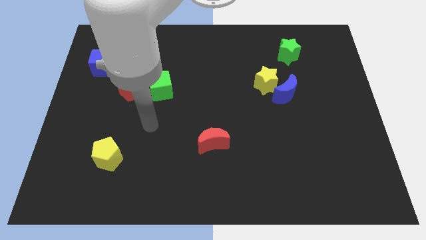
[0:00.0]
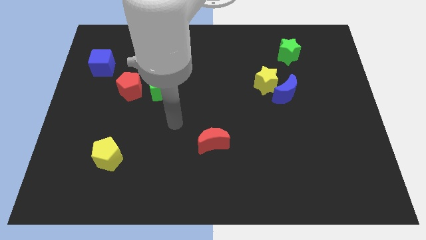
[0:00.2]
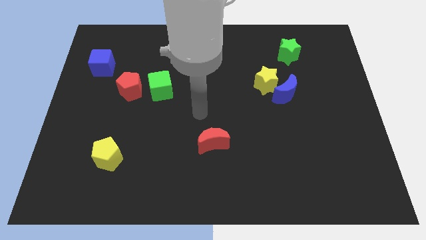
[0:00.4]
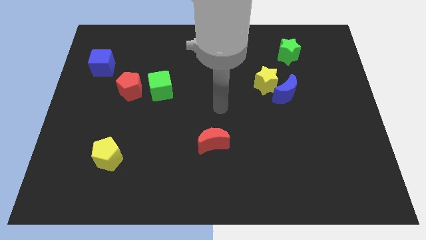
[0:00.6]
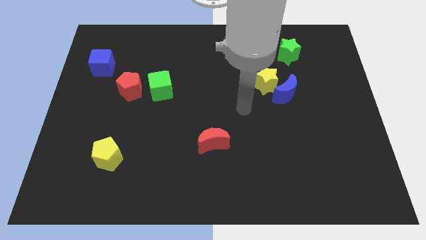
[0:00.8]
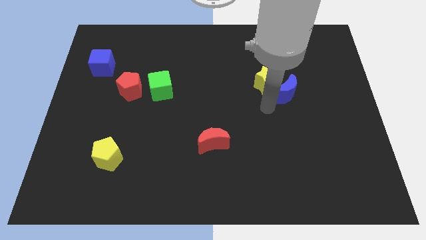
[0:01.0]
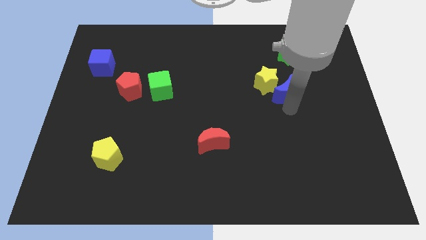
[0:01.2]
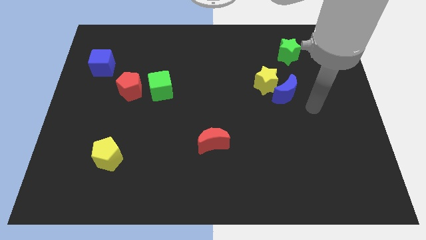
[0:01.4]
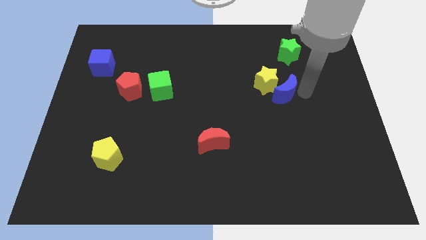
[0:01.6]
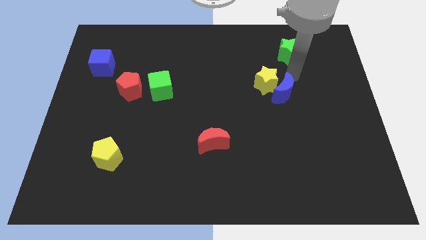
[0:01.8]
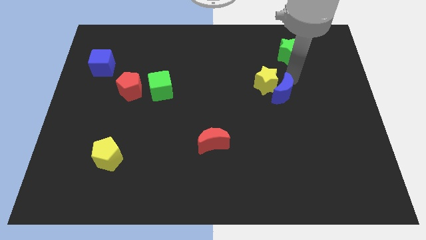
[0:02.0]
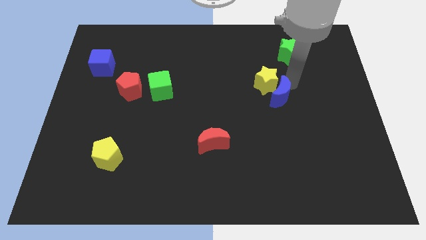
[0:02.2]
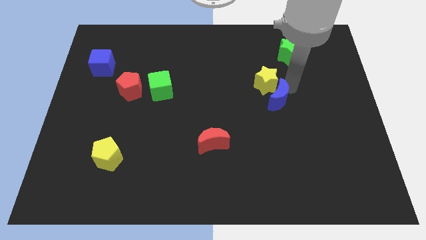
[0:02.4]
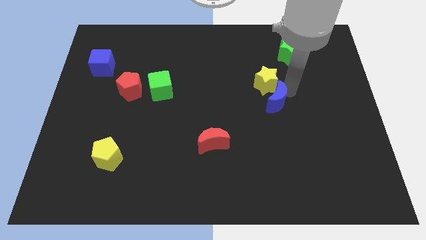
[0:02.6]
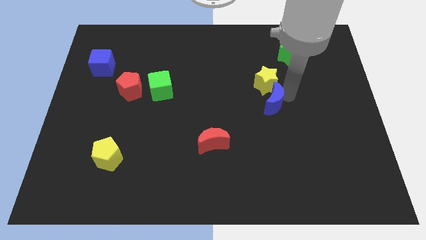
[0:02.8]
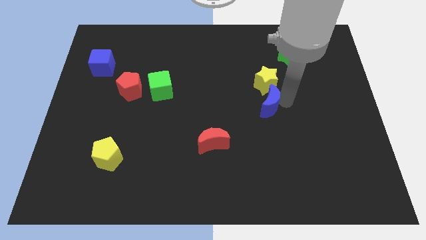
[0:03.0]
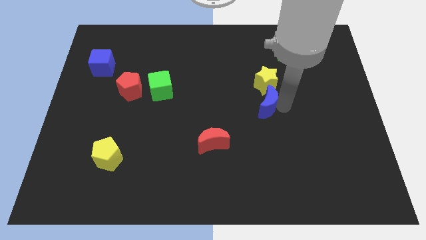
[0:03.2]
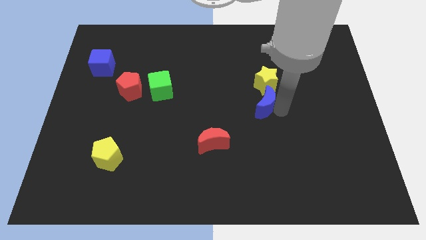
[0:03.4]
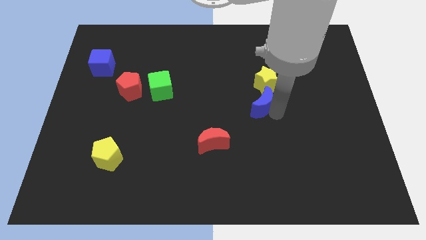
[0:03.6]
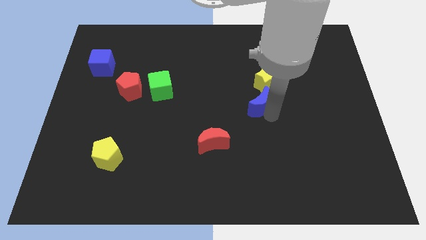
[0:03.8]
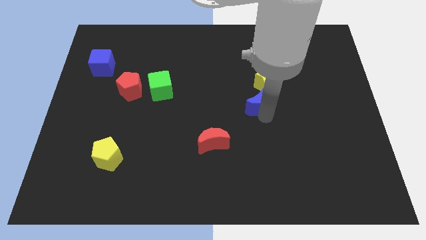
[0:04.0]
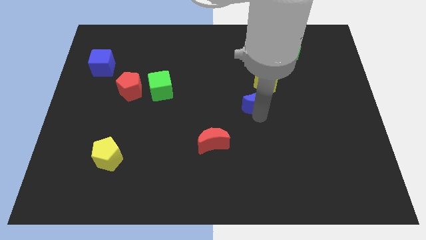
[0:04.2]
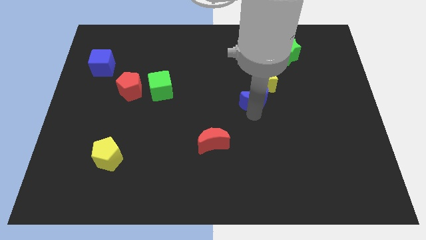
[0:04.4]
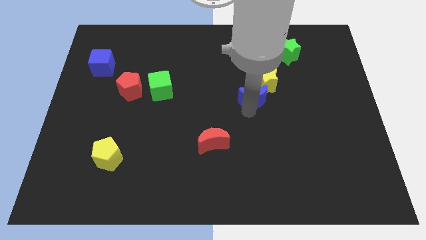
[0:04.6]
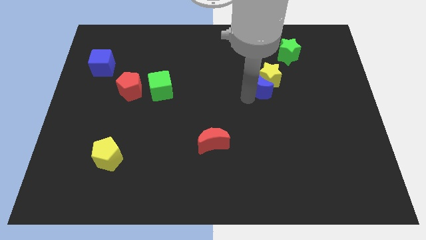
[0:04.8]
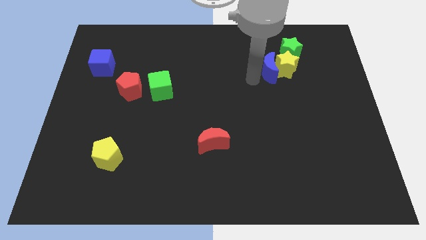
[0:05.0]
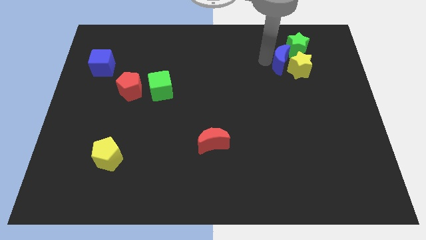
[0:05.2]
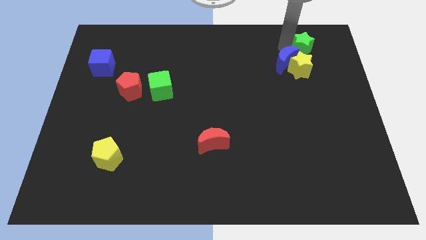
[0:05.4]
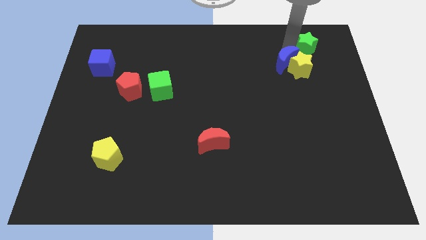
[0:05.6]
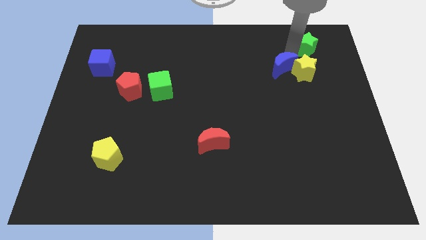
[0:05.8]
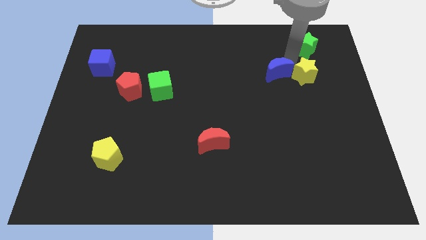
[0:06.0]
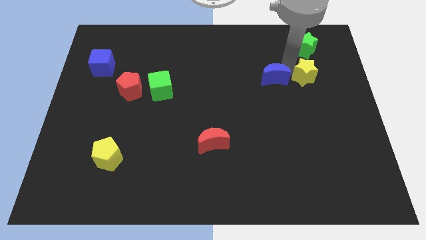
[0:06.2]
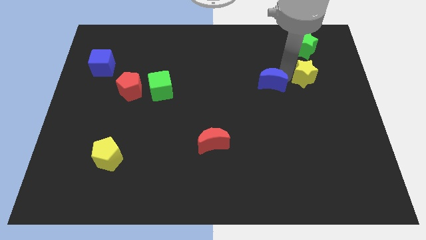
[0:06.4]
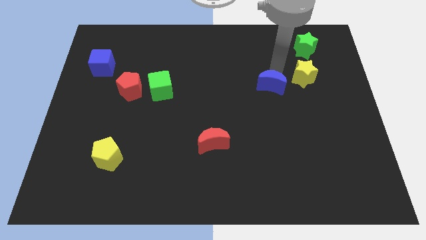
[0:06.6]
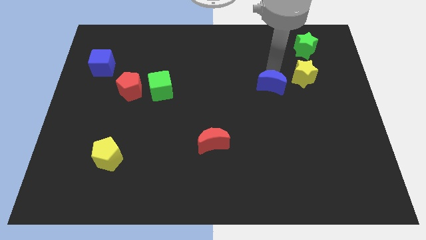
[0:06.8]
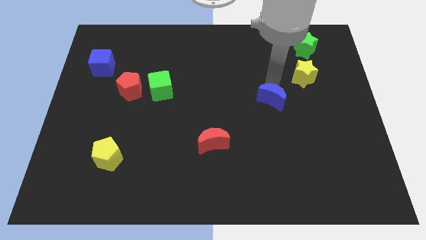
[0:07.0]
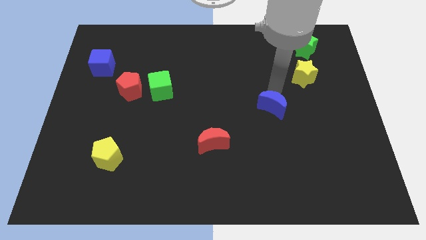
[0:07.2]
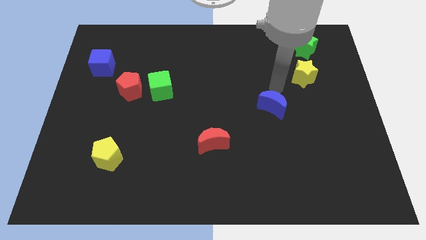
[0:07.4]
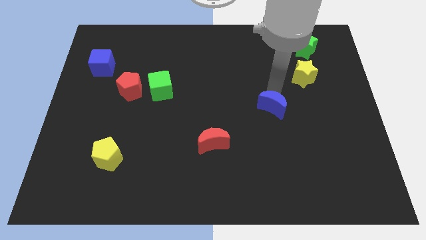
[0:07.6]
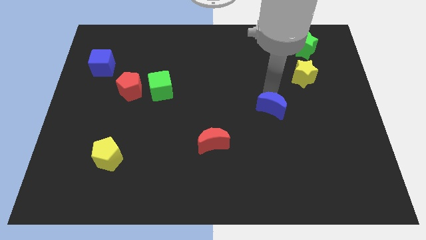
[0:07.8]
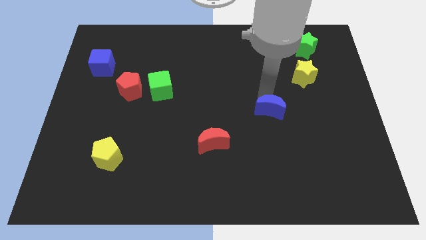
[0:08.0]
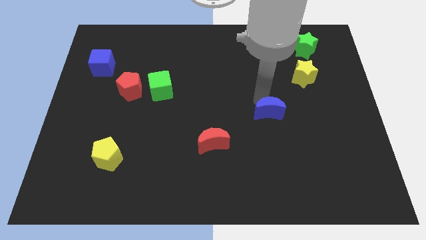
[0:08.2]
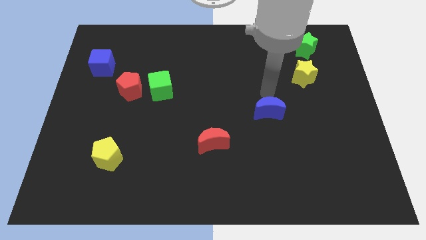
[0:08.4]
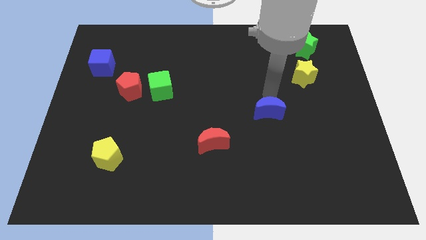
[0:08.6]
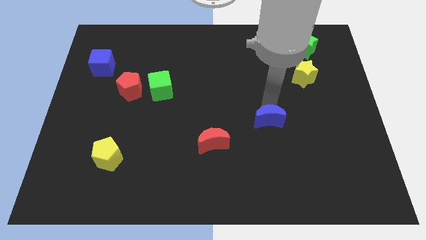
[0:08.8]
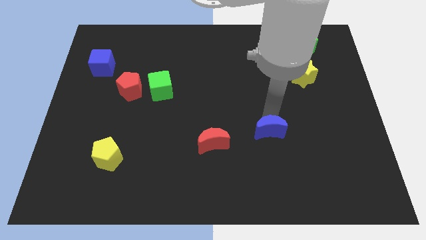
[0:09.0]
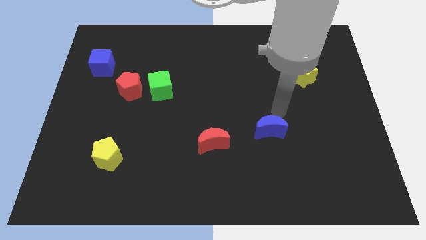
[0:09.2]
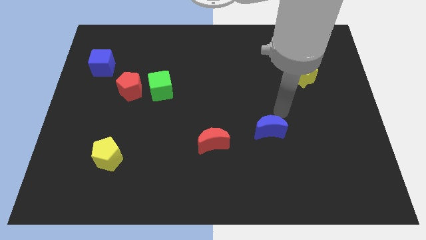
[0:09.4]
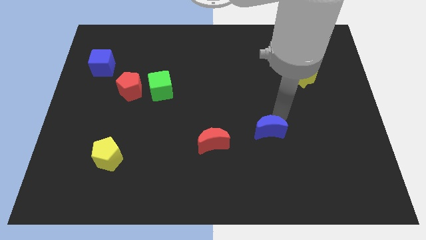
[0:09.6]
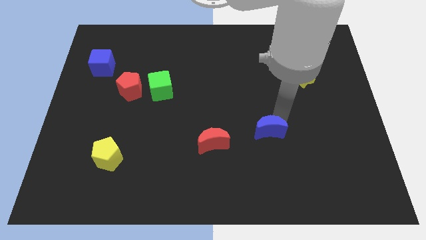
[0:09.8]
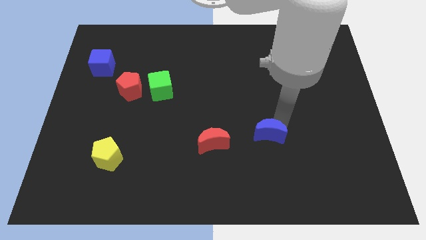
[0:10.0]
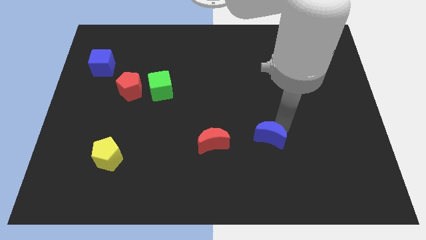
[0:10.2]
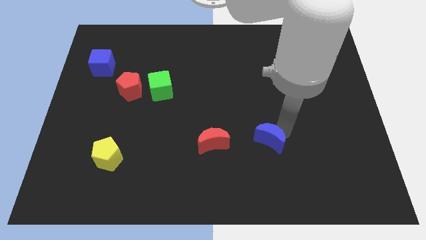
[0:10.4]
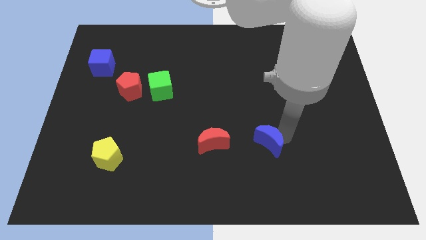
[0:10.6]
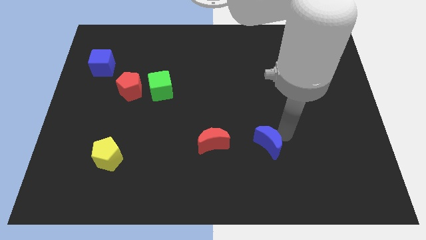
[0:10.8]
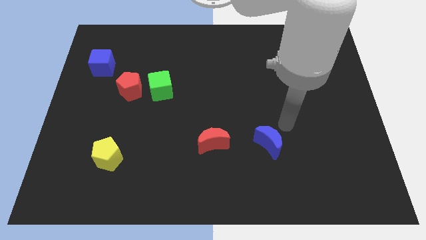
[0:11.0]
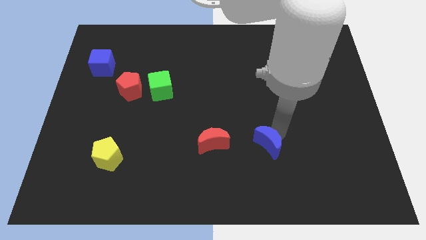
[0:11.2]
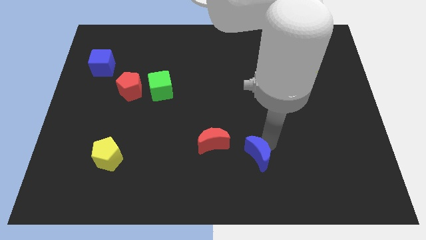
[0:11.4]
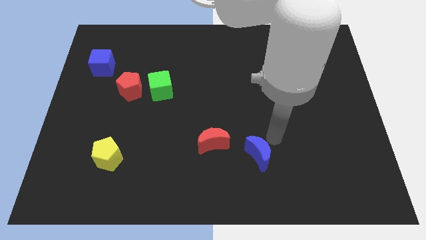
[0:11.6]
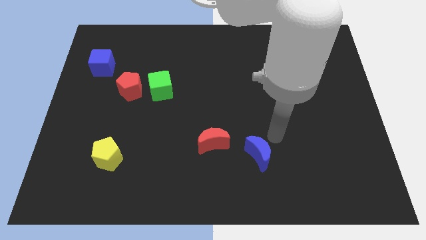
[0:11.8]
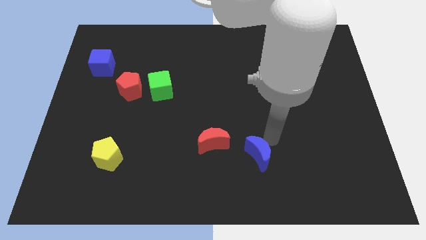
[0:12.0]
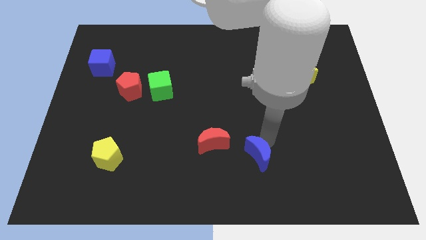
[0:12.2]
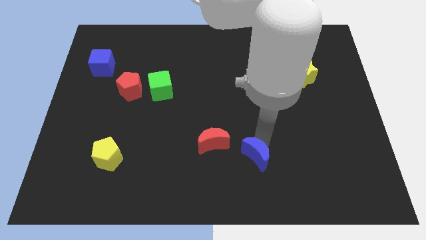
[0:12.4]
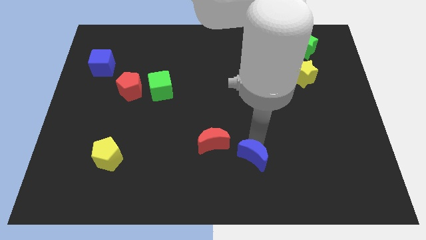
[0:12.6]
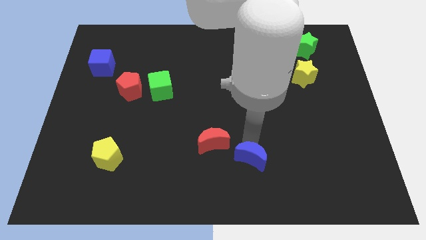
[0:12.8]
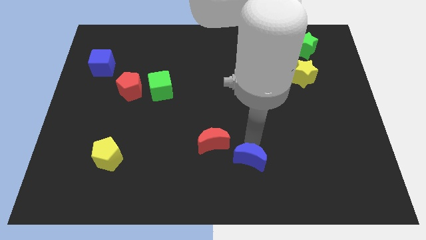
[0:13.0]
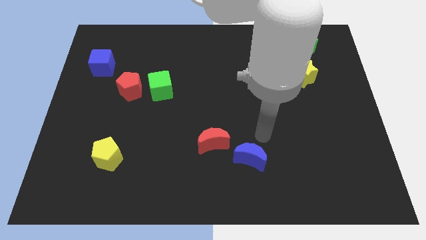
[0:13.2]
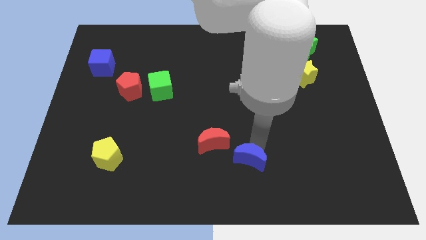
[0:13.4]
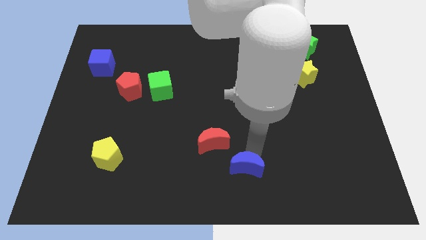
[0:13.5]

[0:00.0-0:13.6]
slide the blue moon to the bottom side
